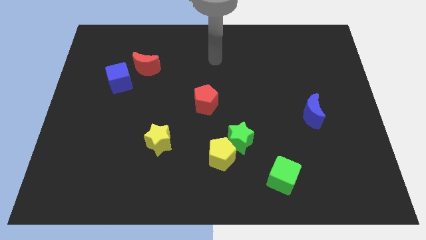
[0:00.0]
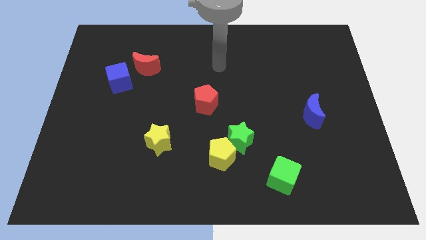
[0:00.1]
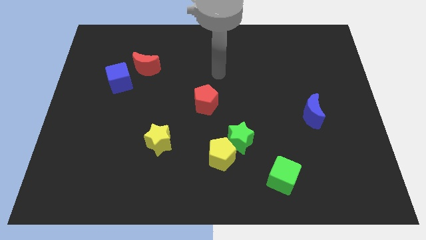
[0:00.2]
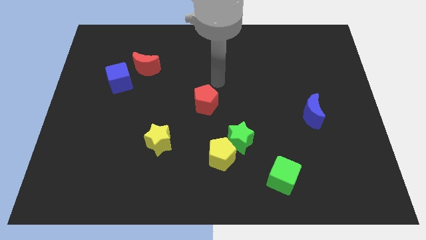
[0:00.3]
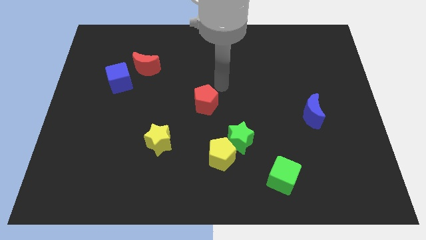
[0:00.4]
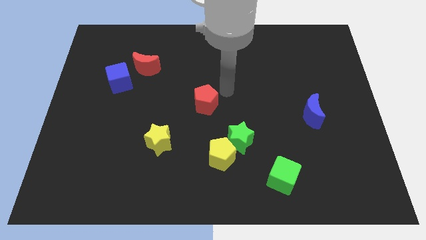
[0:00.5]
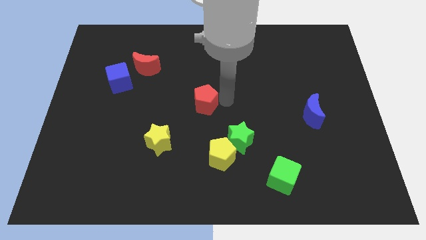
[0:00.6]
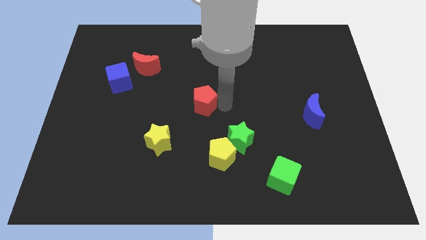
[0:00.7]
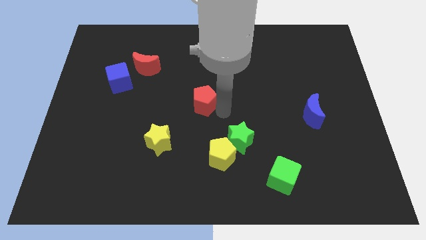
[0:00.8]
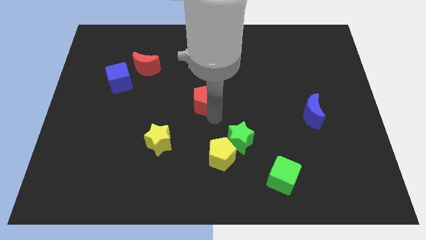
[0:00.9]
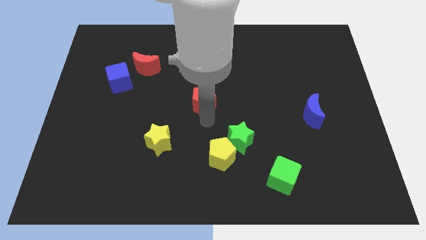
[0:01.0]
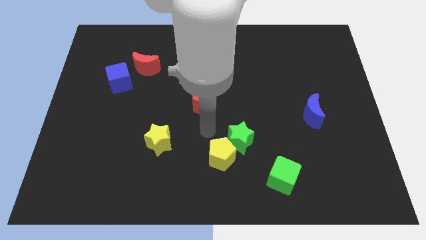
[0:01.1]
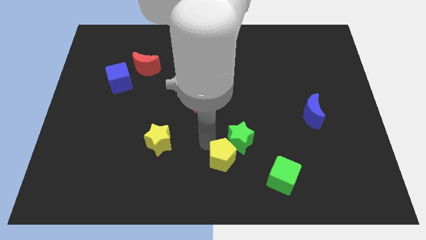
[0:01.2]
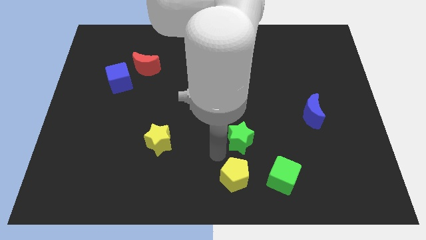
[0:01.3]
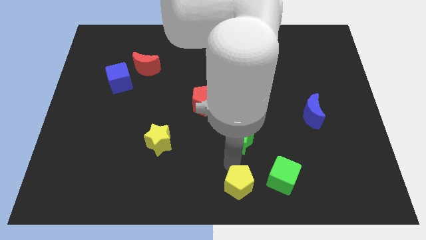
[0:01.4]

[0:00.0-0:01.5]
pull the green star apart from the yellow pentagon

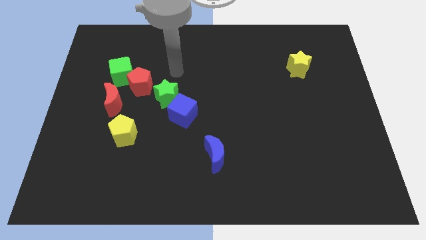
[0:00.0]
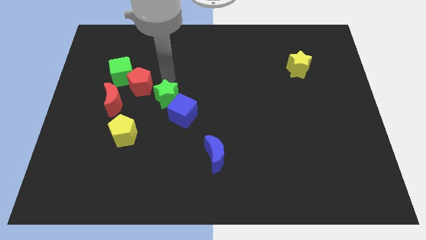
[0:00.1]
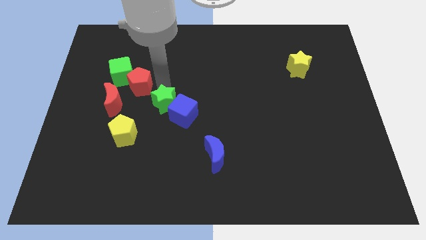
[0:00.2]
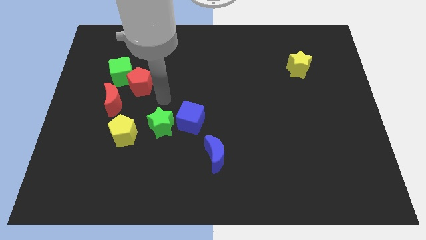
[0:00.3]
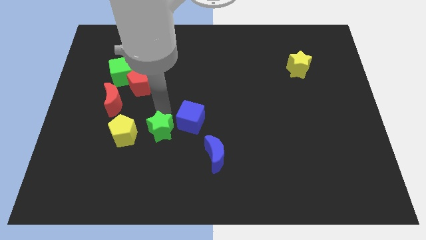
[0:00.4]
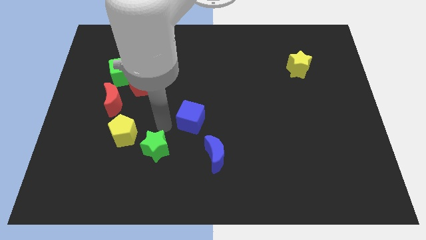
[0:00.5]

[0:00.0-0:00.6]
separate the blue cube from the green star

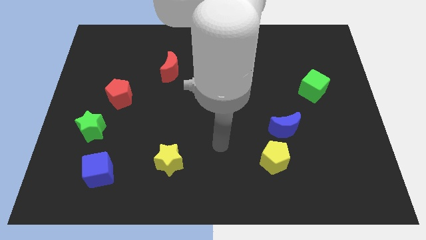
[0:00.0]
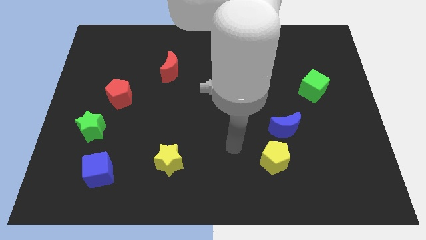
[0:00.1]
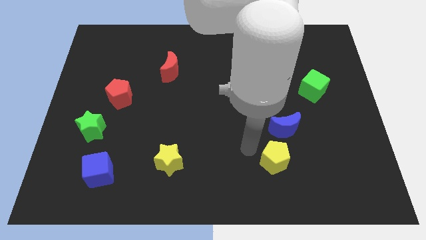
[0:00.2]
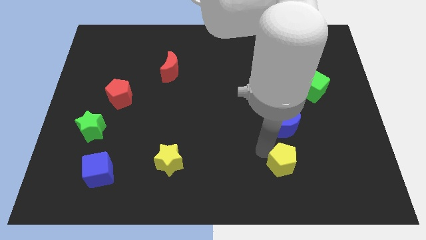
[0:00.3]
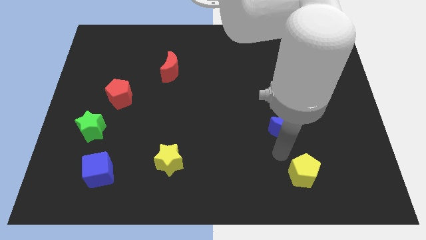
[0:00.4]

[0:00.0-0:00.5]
separate the blue moon from the yellow pentagon

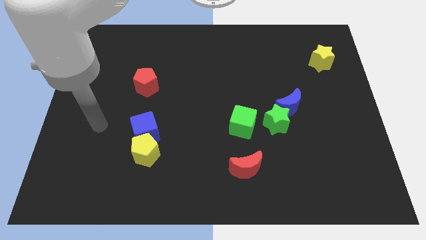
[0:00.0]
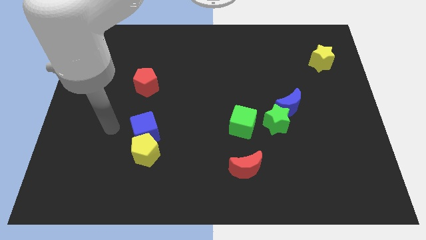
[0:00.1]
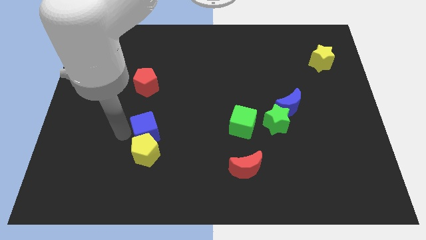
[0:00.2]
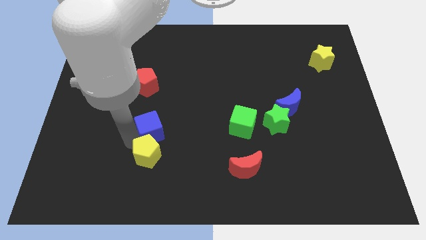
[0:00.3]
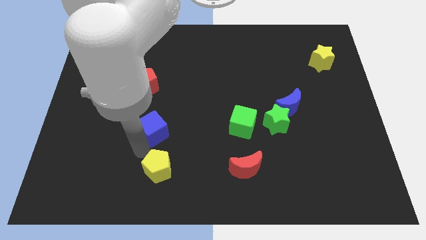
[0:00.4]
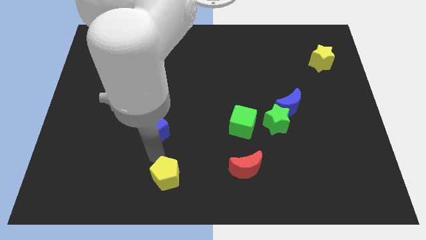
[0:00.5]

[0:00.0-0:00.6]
separate the blue cube from the yellow pentagon

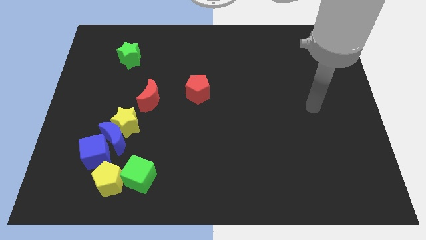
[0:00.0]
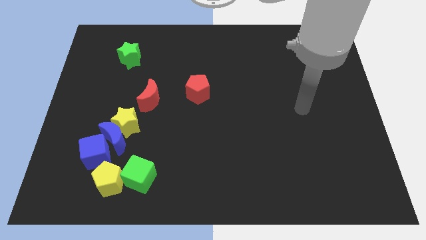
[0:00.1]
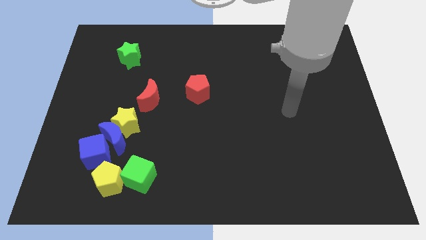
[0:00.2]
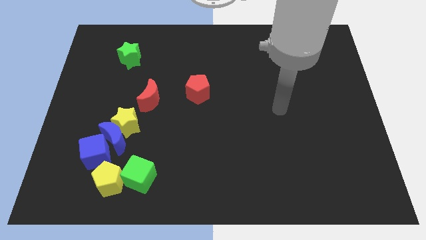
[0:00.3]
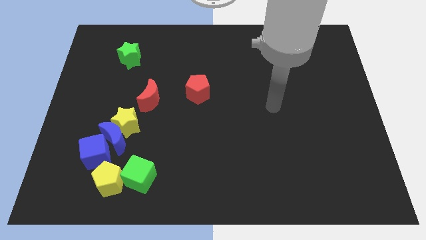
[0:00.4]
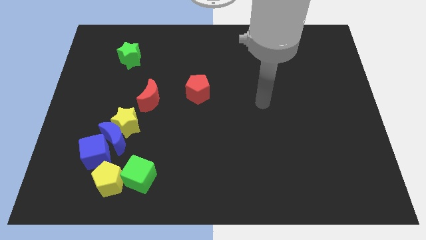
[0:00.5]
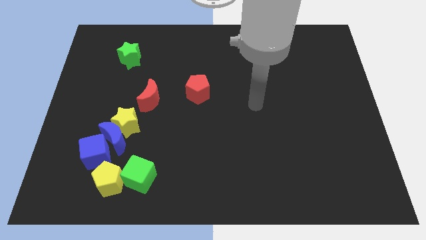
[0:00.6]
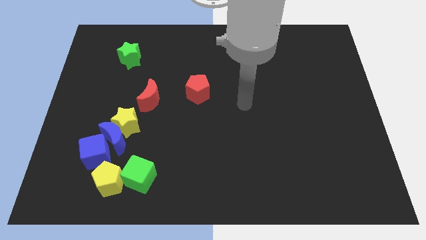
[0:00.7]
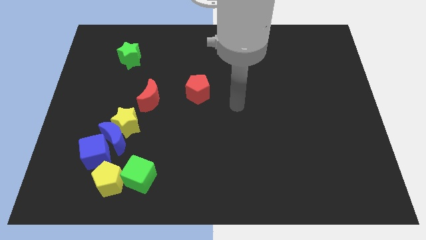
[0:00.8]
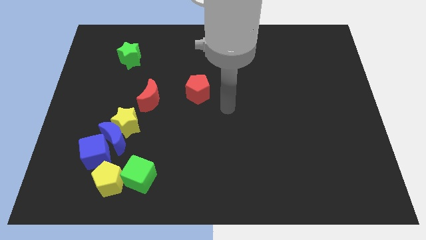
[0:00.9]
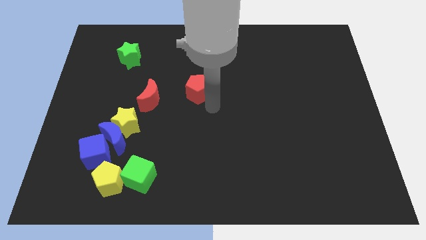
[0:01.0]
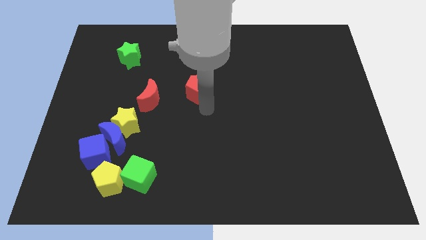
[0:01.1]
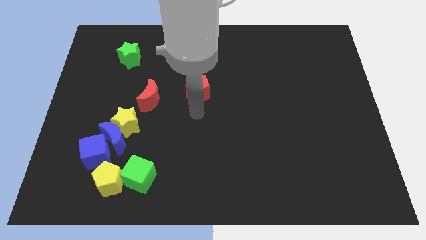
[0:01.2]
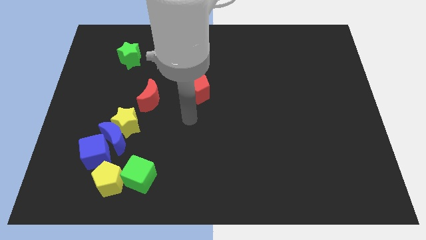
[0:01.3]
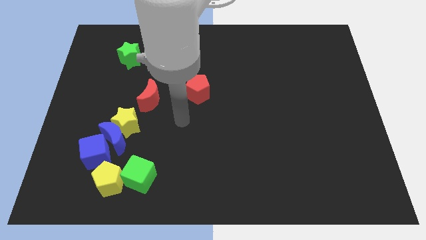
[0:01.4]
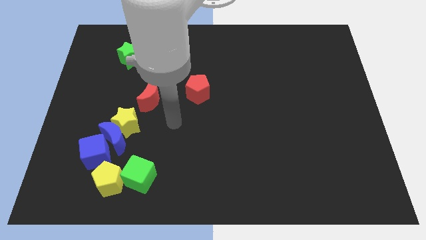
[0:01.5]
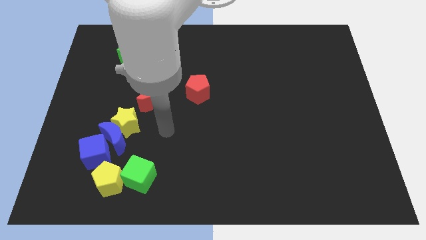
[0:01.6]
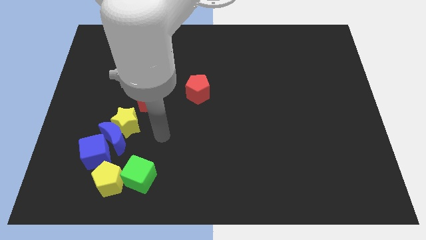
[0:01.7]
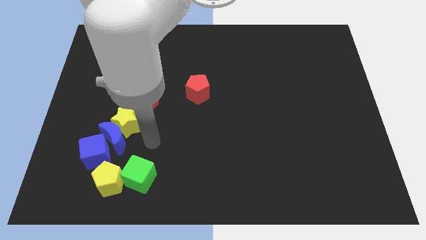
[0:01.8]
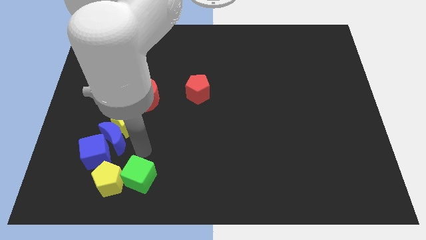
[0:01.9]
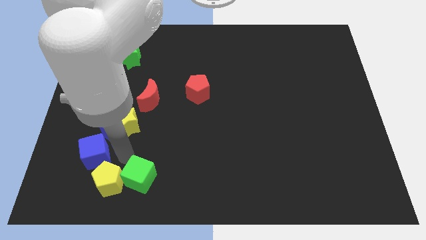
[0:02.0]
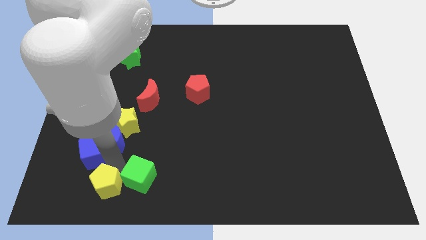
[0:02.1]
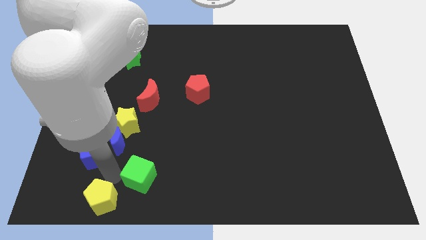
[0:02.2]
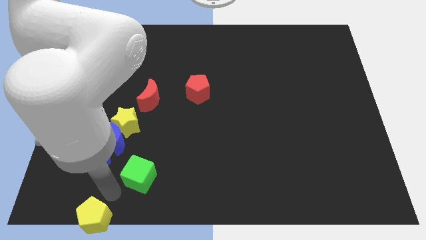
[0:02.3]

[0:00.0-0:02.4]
pull the green cube apart from the yellow pentagon

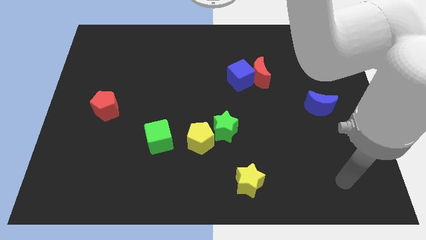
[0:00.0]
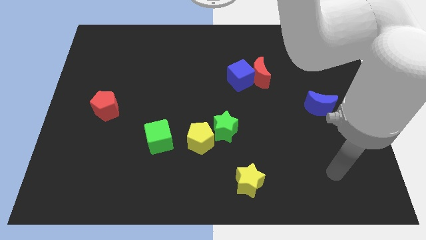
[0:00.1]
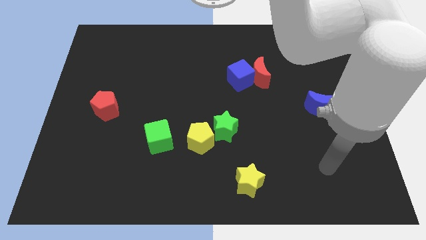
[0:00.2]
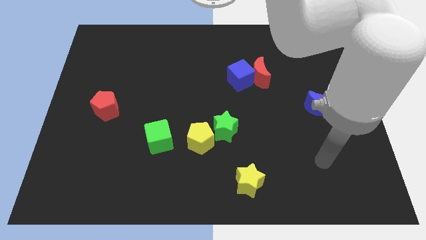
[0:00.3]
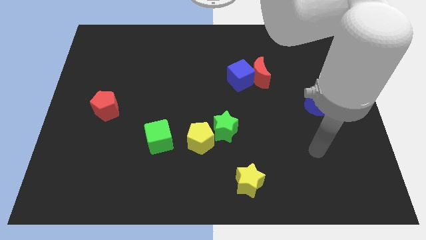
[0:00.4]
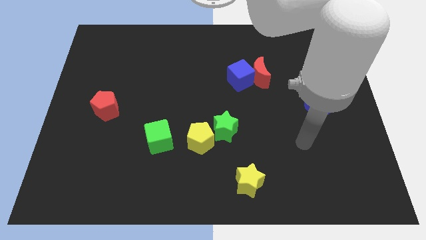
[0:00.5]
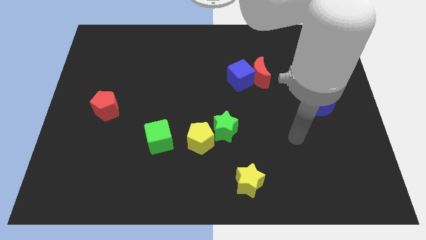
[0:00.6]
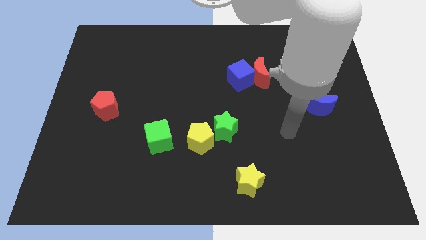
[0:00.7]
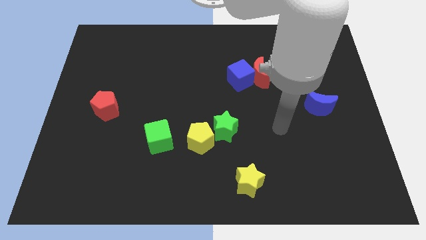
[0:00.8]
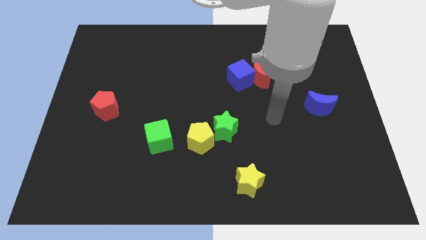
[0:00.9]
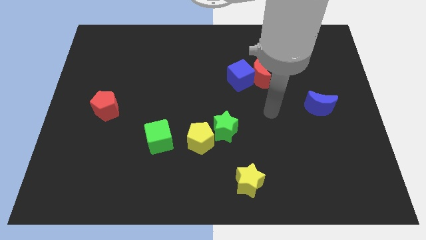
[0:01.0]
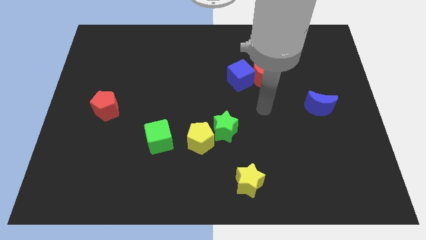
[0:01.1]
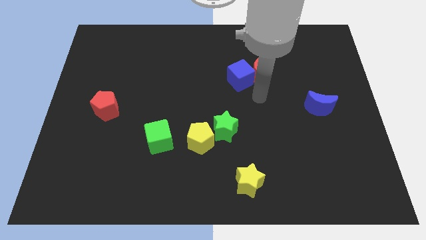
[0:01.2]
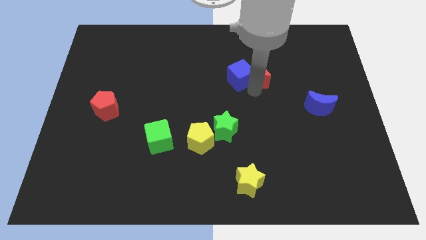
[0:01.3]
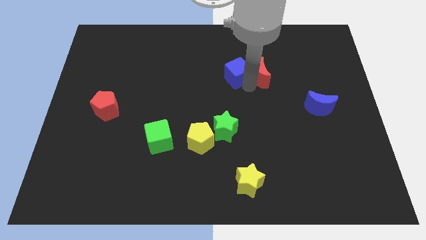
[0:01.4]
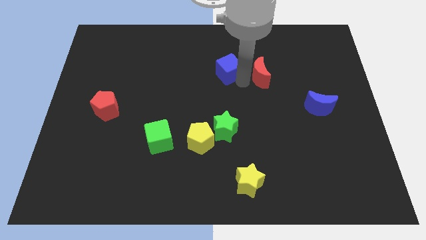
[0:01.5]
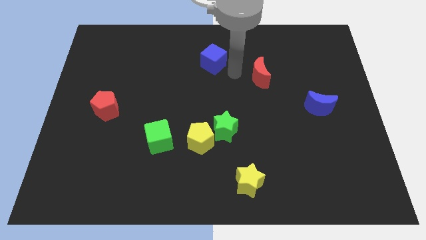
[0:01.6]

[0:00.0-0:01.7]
separate the red moon from the blue cube

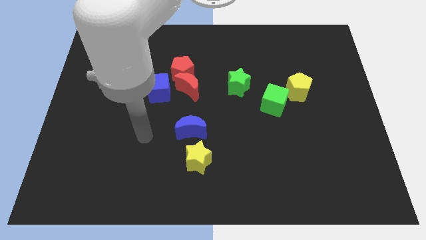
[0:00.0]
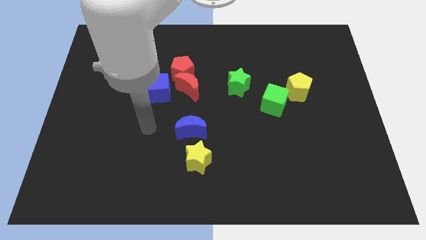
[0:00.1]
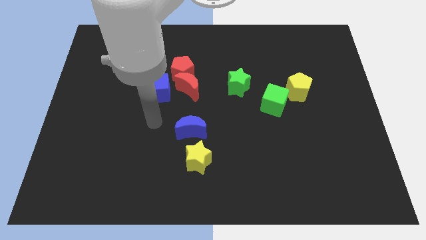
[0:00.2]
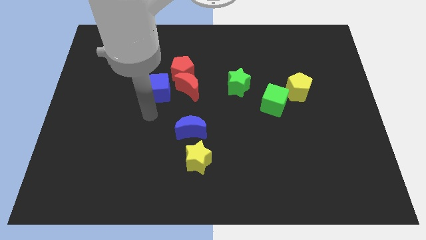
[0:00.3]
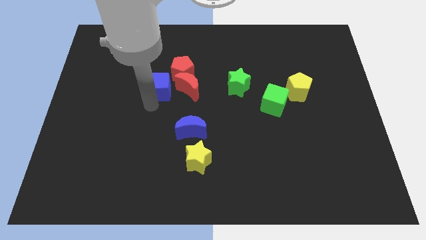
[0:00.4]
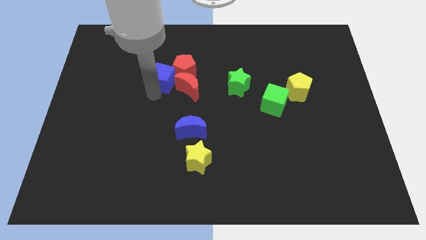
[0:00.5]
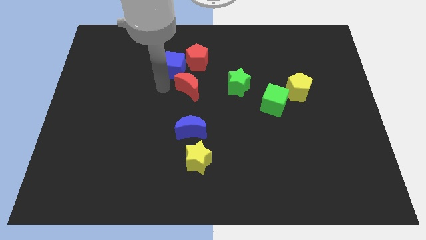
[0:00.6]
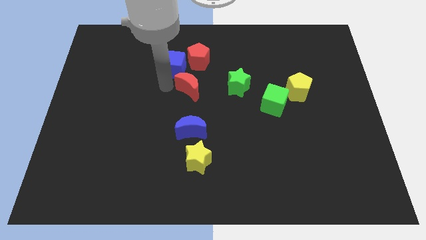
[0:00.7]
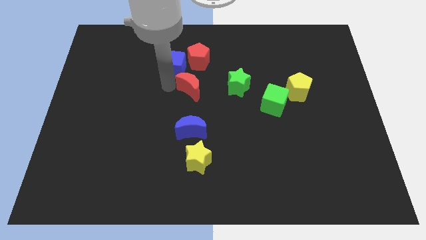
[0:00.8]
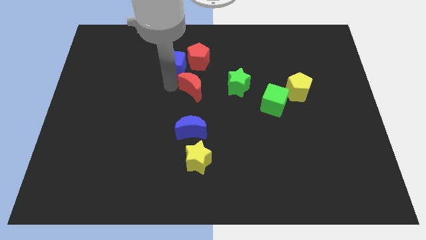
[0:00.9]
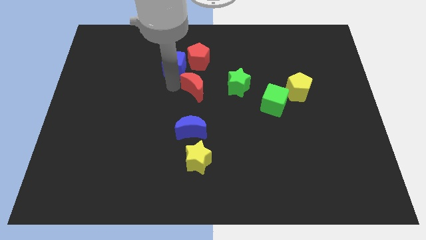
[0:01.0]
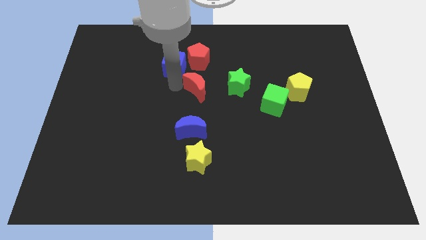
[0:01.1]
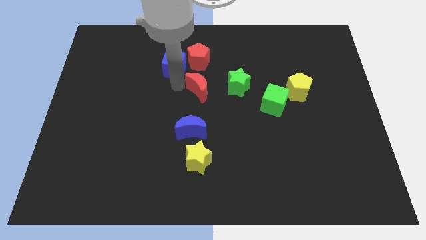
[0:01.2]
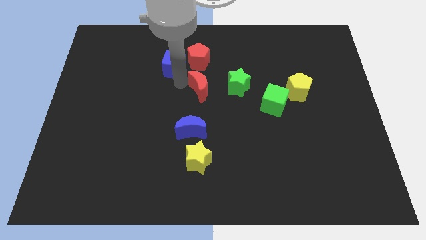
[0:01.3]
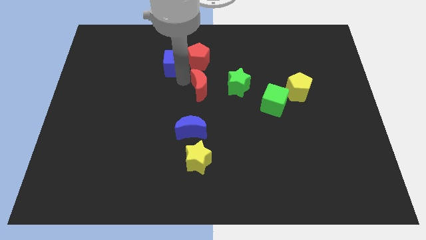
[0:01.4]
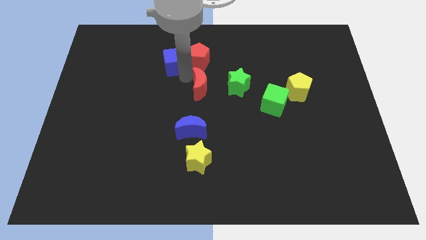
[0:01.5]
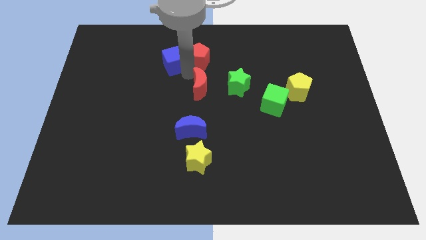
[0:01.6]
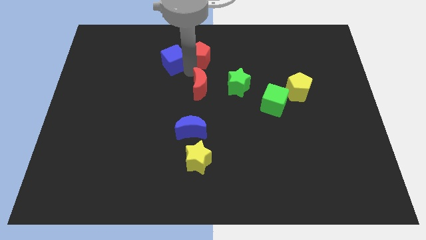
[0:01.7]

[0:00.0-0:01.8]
pull the red moon apart from the red pentagon and blue cube

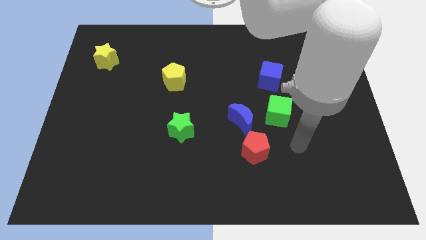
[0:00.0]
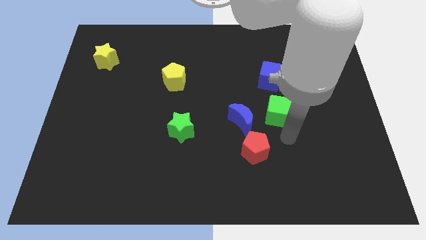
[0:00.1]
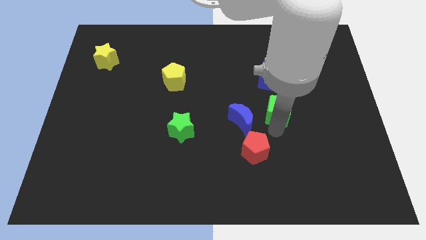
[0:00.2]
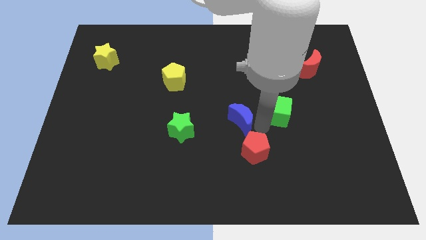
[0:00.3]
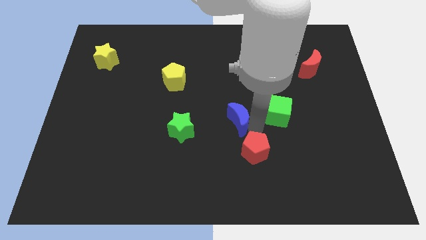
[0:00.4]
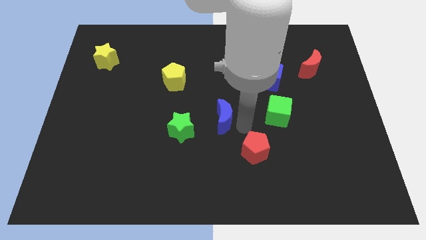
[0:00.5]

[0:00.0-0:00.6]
pull the red pentagon apart from the blue moon
